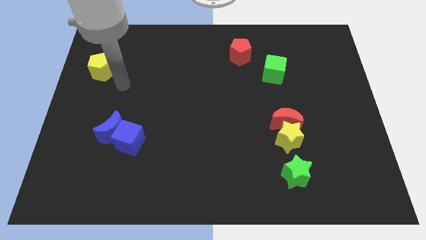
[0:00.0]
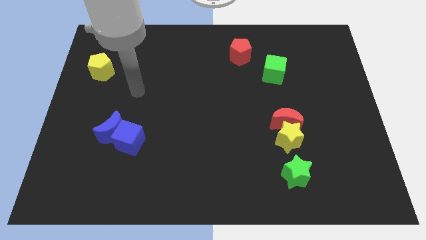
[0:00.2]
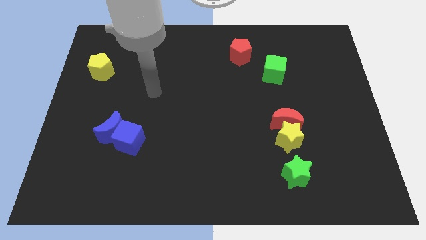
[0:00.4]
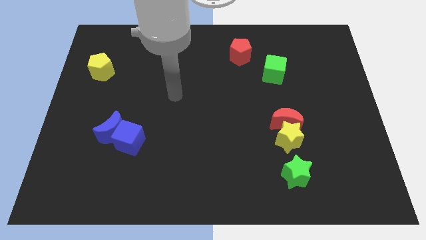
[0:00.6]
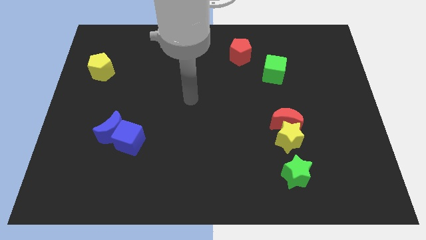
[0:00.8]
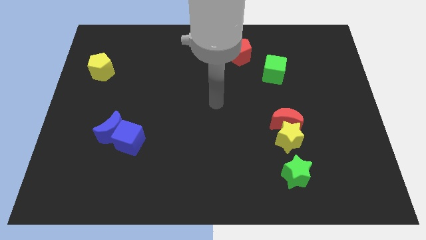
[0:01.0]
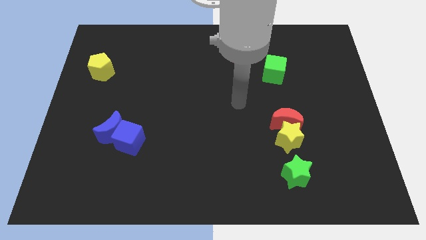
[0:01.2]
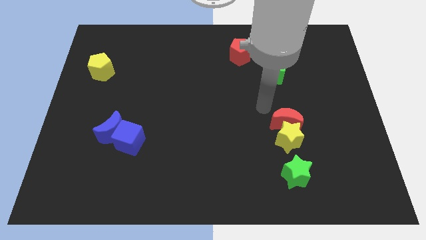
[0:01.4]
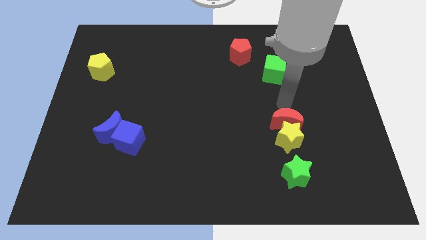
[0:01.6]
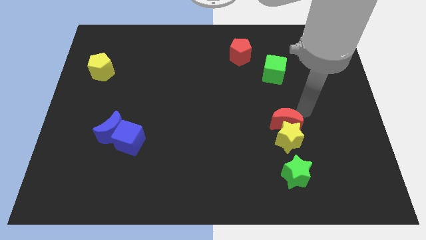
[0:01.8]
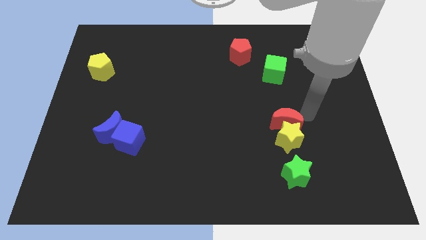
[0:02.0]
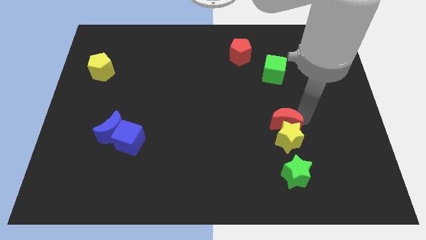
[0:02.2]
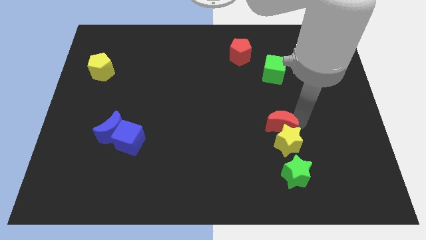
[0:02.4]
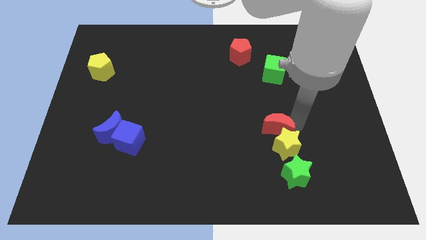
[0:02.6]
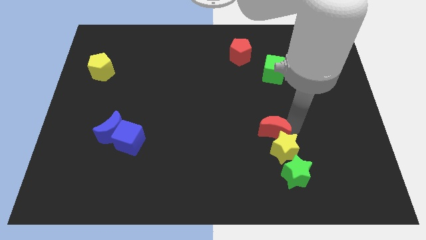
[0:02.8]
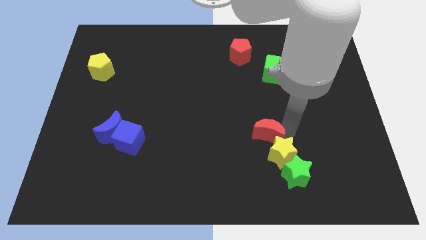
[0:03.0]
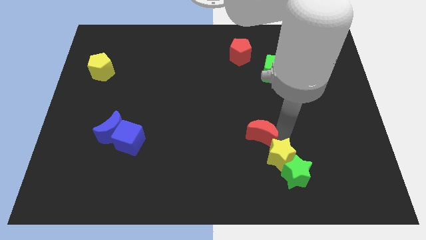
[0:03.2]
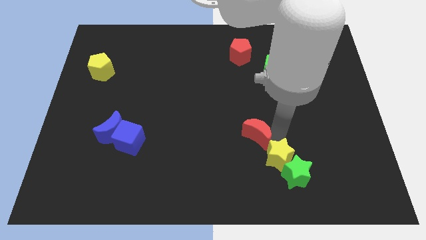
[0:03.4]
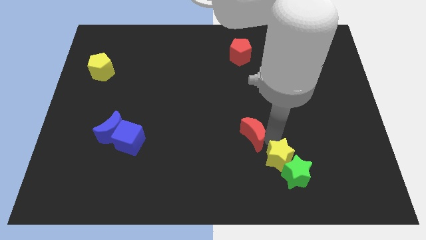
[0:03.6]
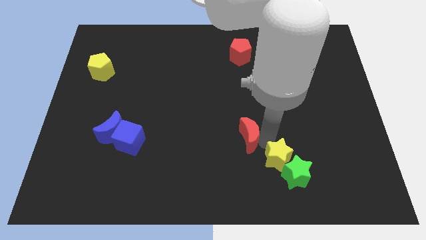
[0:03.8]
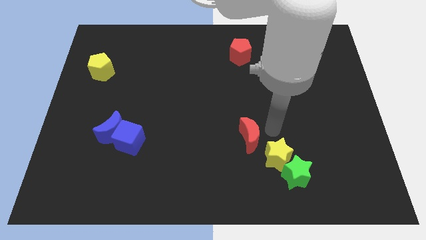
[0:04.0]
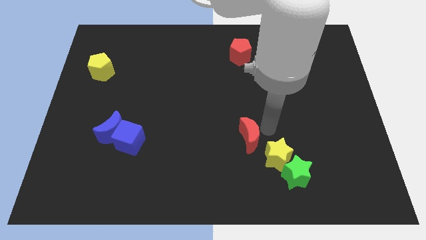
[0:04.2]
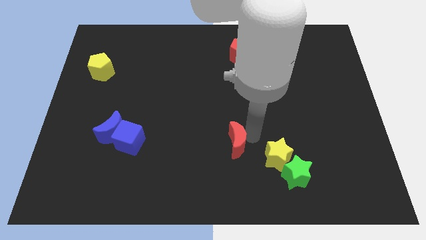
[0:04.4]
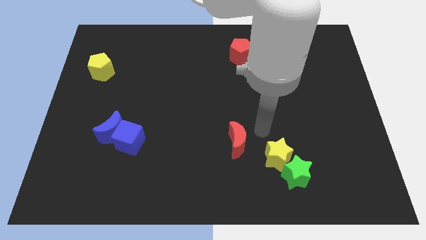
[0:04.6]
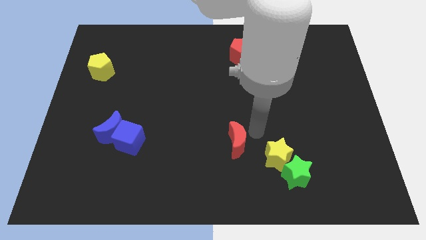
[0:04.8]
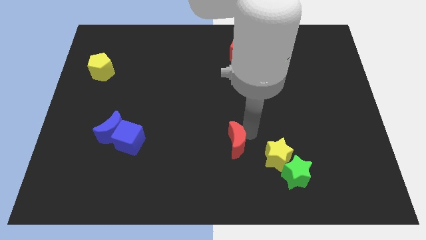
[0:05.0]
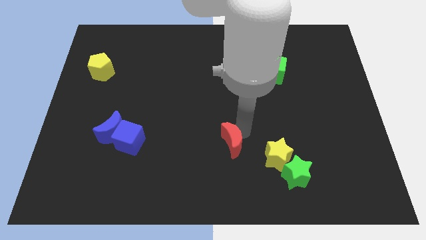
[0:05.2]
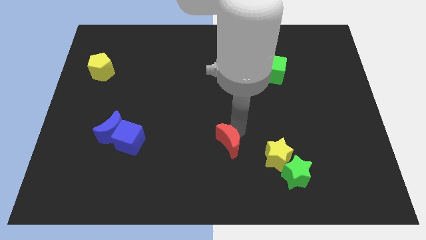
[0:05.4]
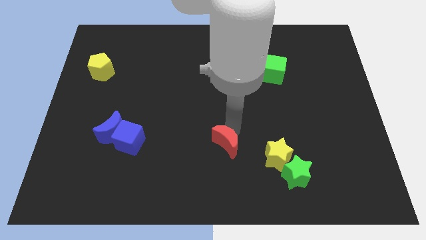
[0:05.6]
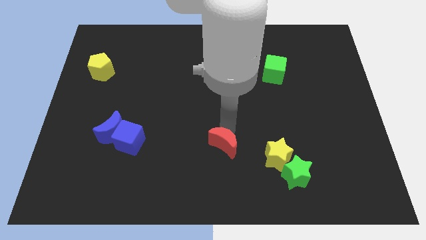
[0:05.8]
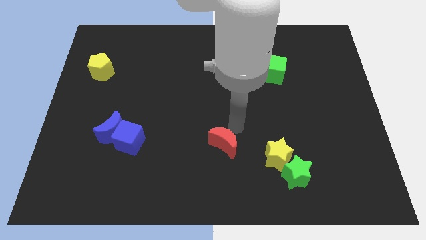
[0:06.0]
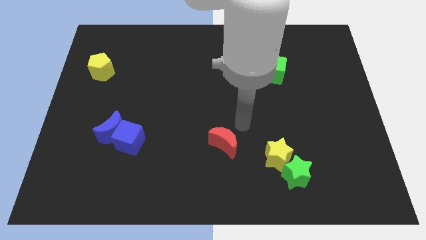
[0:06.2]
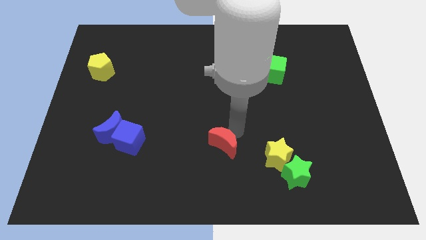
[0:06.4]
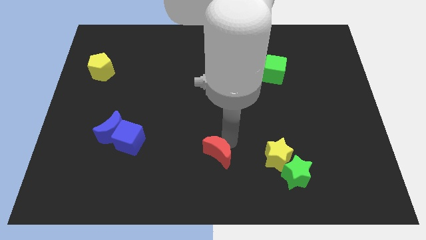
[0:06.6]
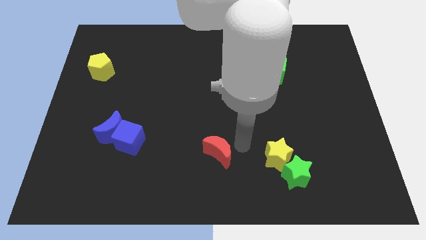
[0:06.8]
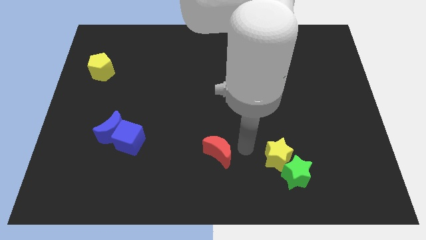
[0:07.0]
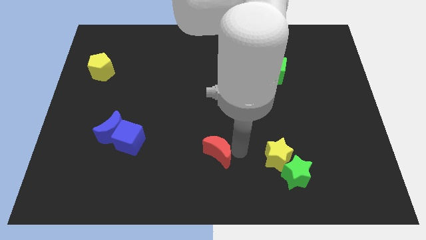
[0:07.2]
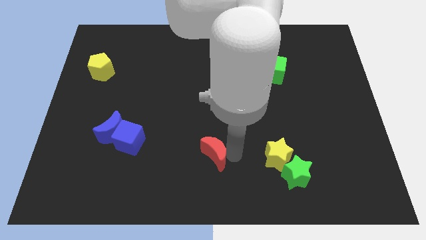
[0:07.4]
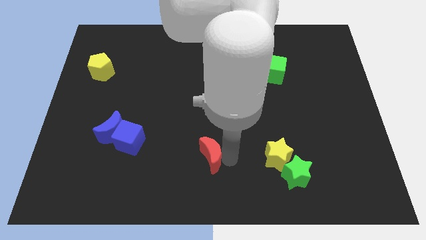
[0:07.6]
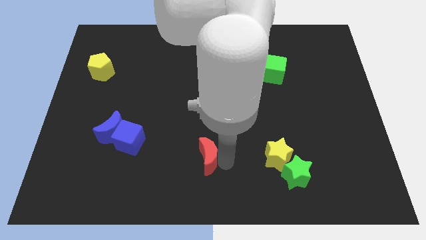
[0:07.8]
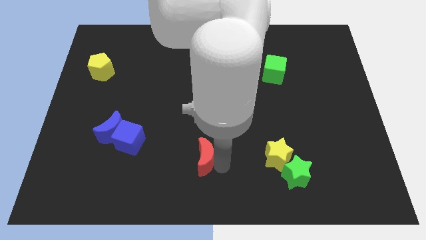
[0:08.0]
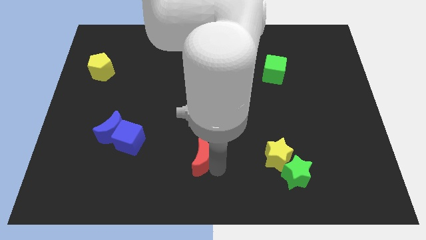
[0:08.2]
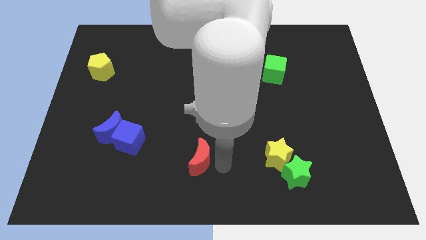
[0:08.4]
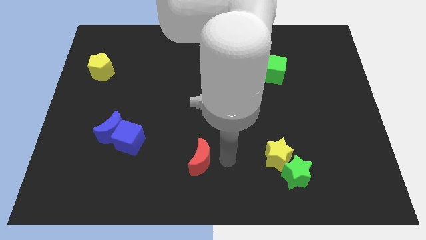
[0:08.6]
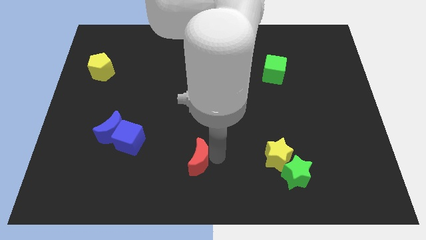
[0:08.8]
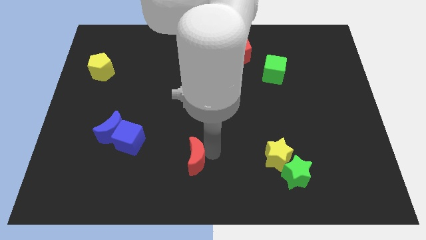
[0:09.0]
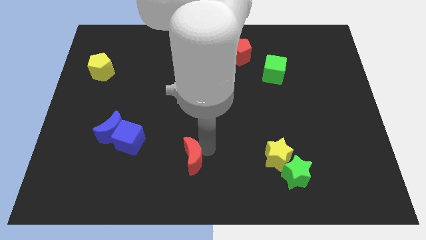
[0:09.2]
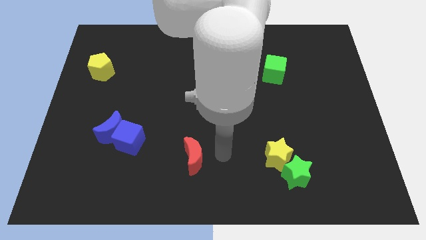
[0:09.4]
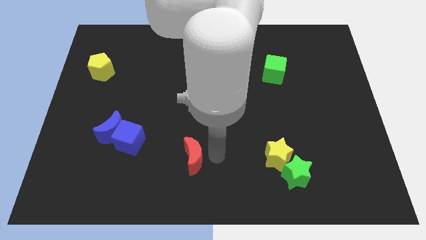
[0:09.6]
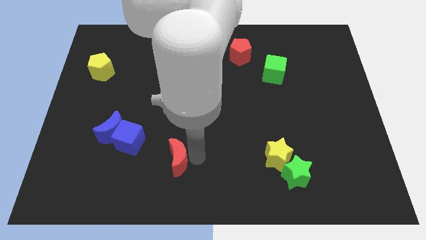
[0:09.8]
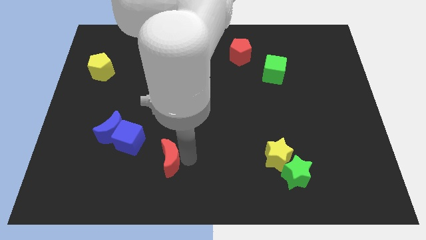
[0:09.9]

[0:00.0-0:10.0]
slide the red moon to the bottom right of the blue cube

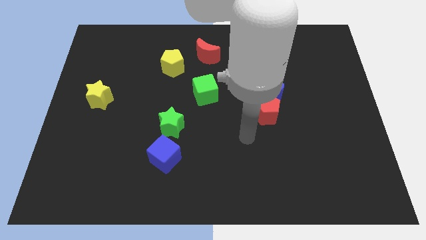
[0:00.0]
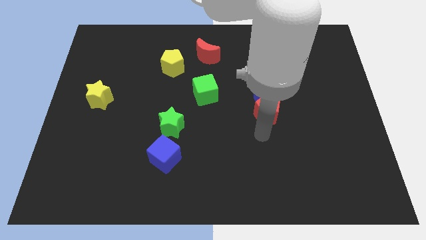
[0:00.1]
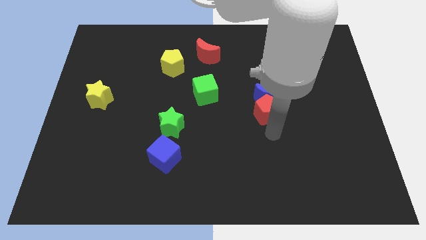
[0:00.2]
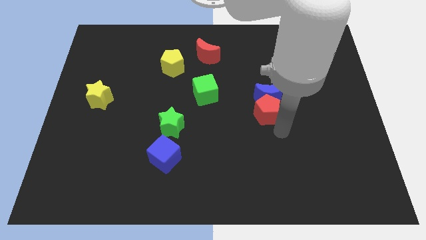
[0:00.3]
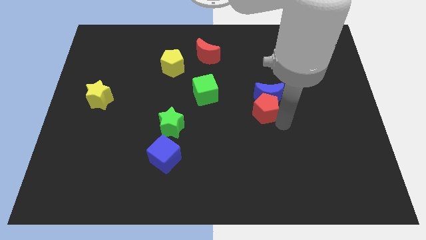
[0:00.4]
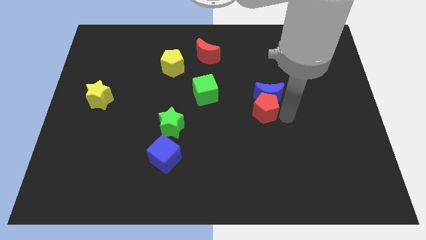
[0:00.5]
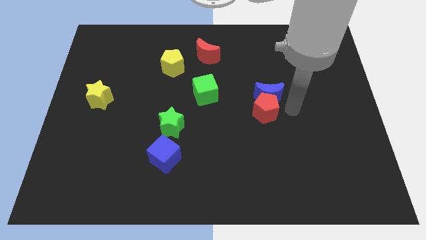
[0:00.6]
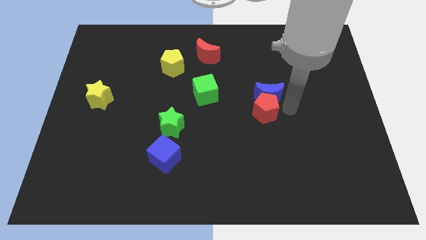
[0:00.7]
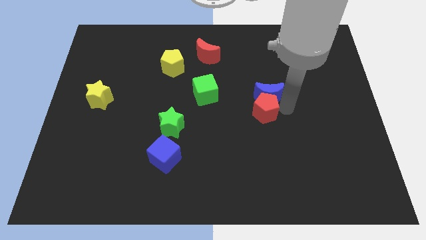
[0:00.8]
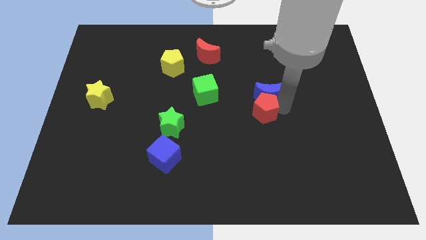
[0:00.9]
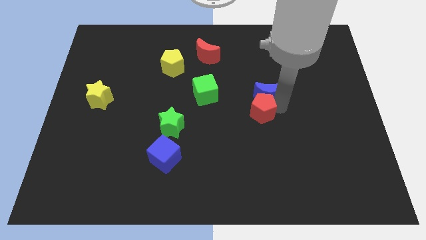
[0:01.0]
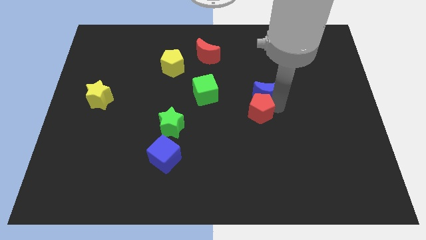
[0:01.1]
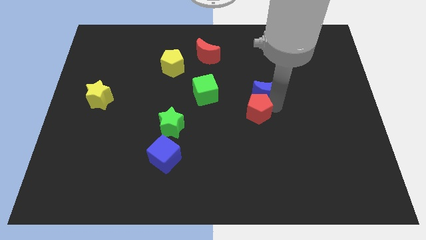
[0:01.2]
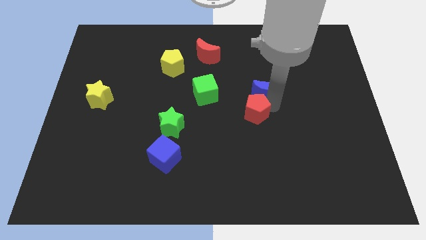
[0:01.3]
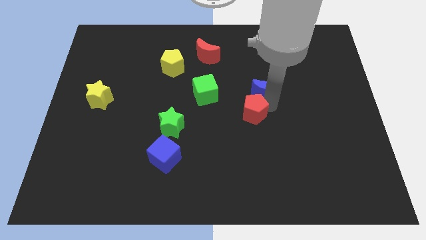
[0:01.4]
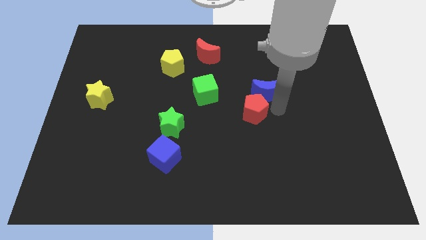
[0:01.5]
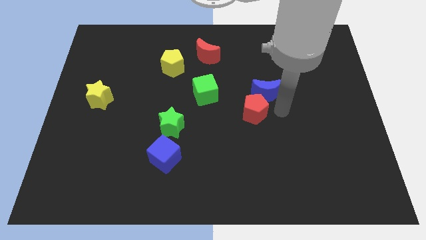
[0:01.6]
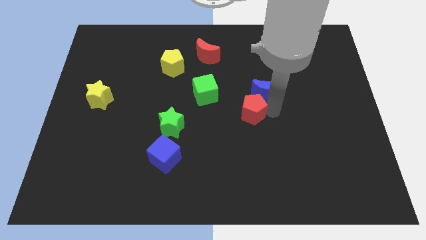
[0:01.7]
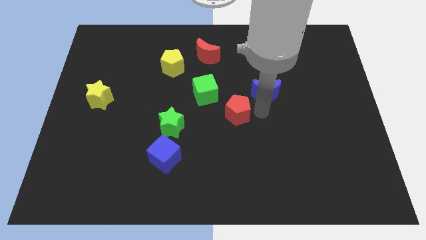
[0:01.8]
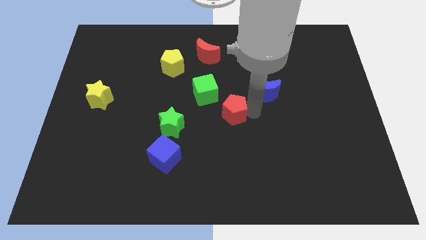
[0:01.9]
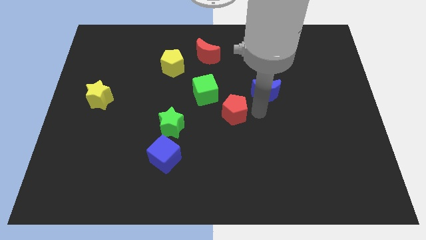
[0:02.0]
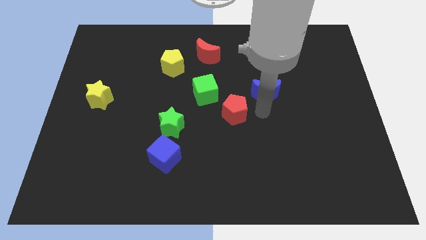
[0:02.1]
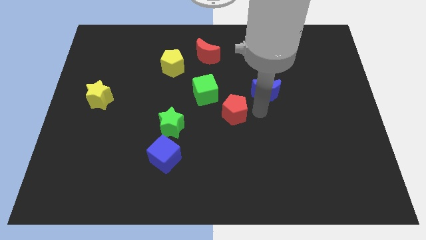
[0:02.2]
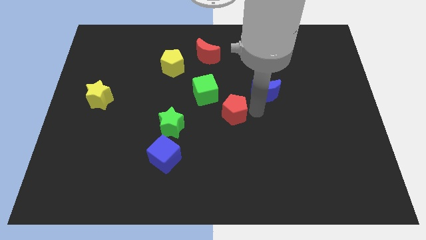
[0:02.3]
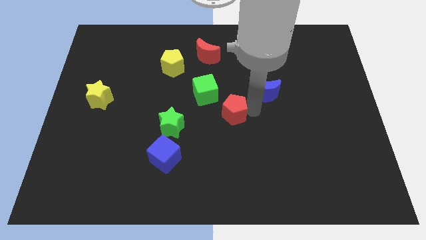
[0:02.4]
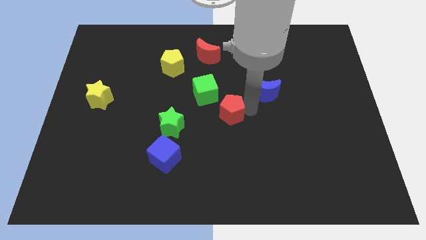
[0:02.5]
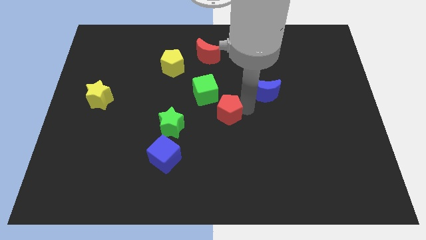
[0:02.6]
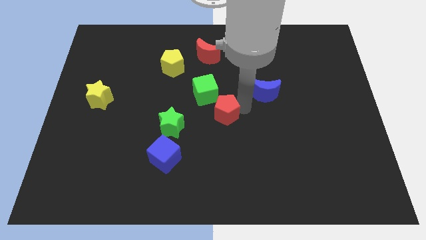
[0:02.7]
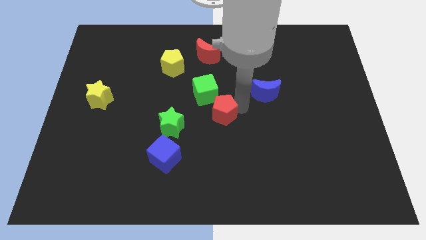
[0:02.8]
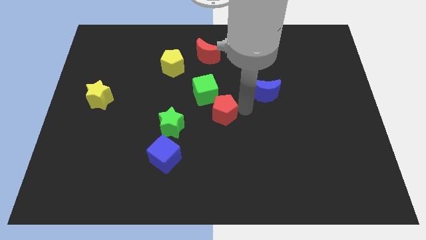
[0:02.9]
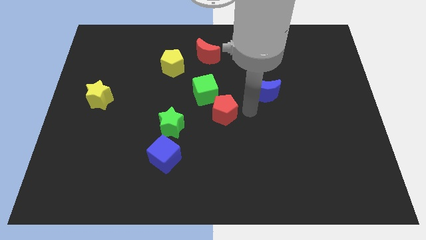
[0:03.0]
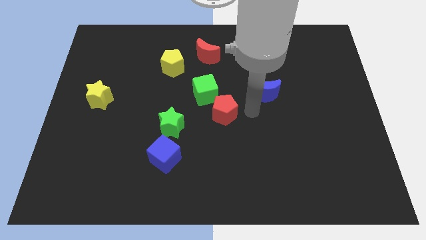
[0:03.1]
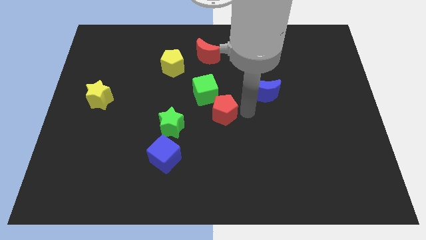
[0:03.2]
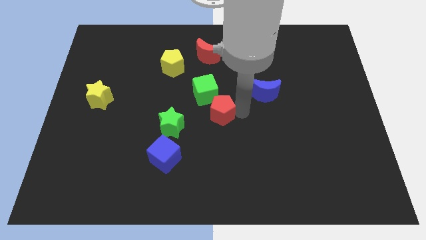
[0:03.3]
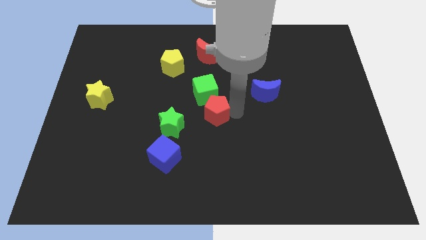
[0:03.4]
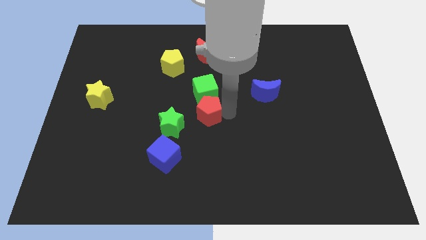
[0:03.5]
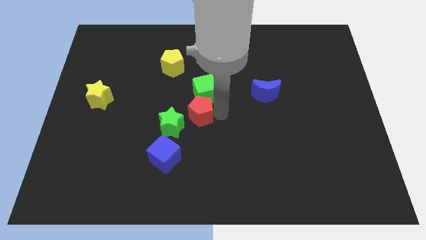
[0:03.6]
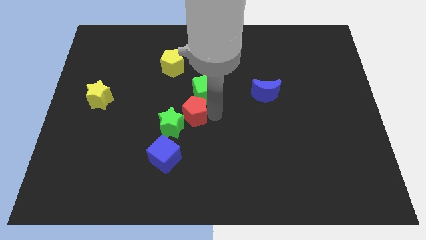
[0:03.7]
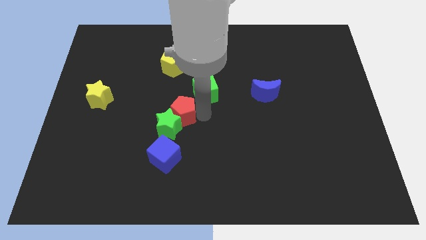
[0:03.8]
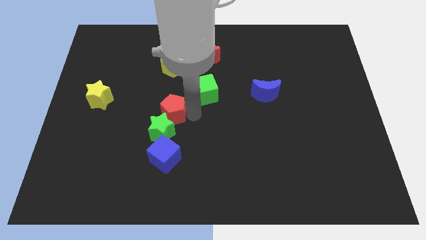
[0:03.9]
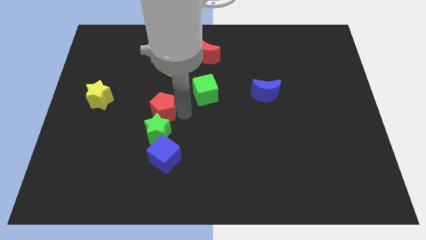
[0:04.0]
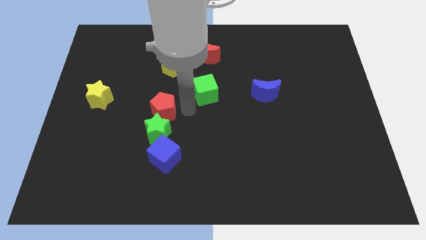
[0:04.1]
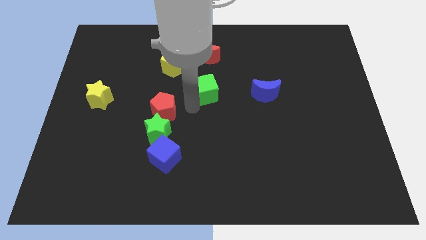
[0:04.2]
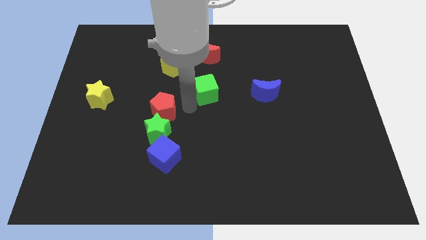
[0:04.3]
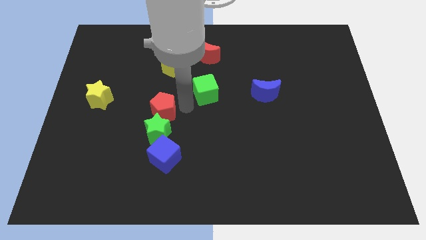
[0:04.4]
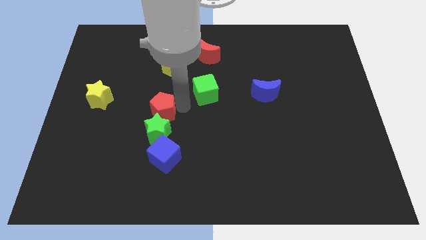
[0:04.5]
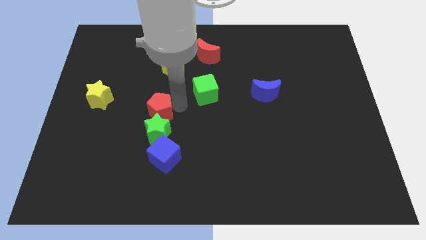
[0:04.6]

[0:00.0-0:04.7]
move the red pentagon to the top left side of the green star
